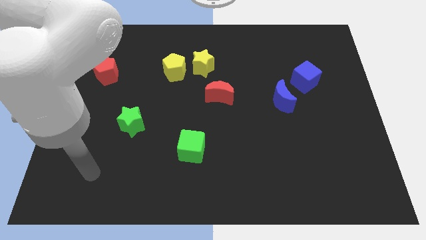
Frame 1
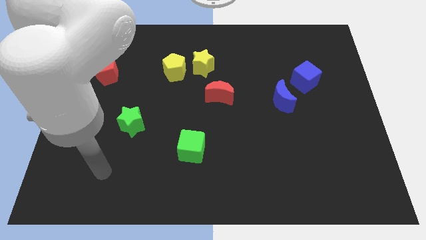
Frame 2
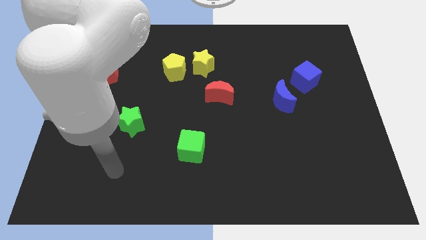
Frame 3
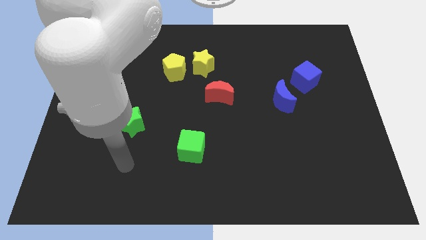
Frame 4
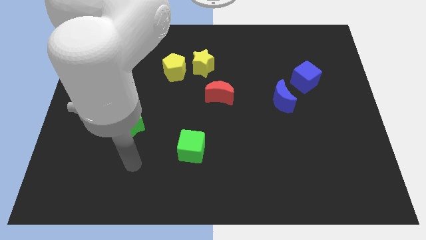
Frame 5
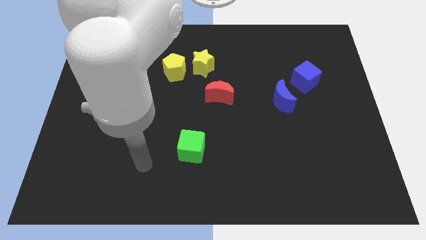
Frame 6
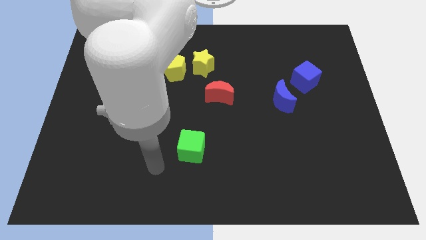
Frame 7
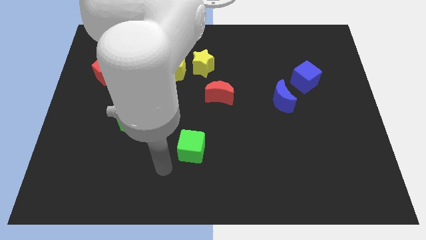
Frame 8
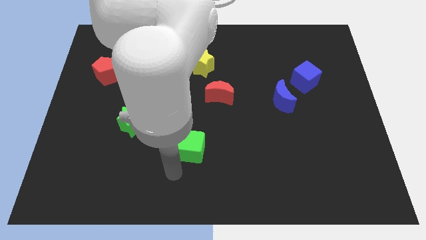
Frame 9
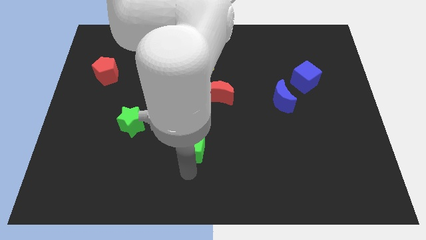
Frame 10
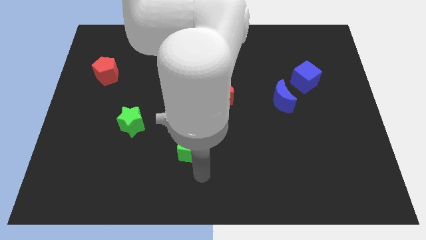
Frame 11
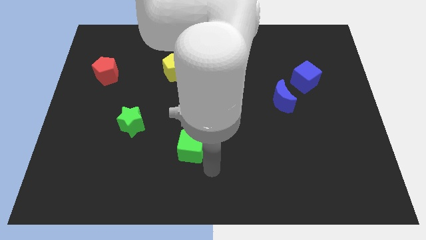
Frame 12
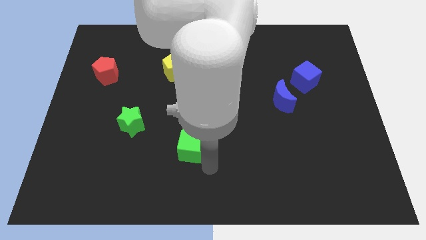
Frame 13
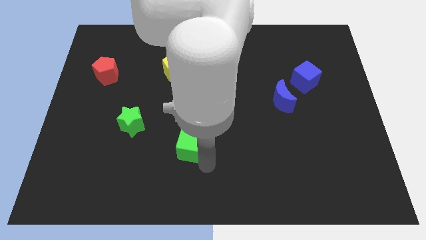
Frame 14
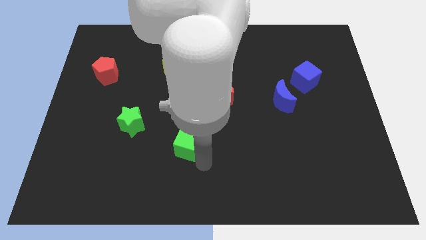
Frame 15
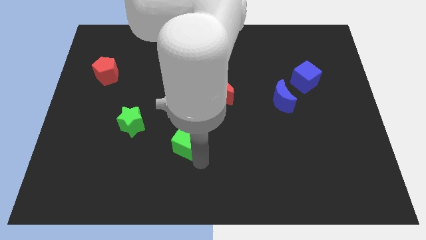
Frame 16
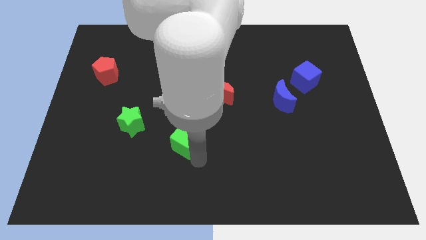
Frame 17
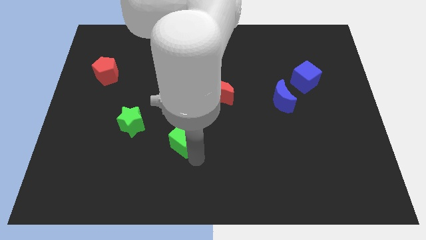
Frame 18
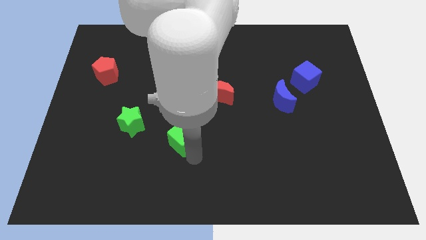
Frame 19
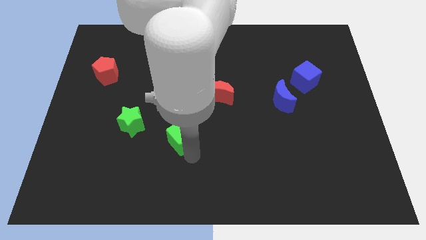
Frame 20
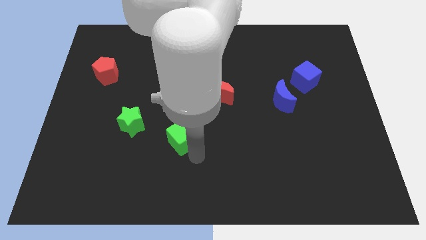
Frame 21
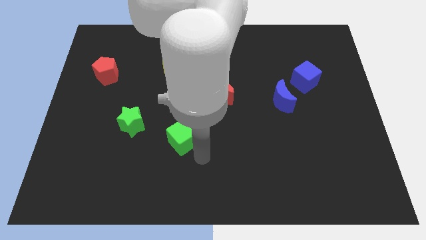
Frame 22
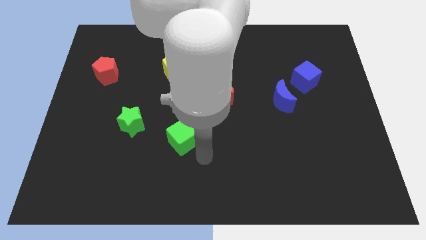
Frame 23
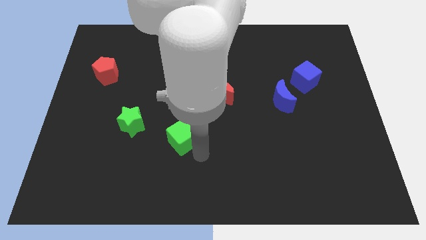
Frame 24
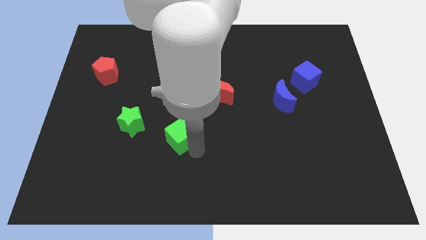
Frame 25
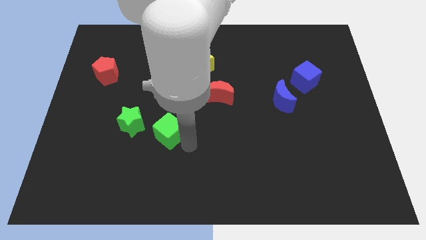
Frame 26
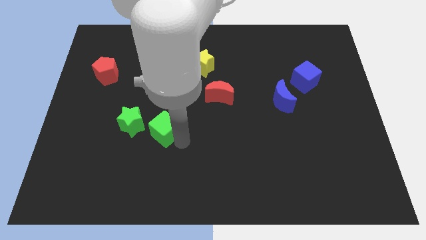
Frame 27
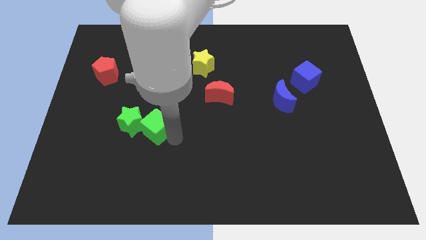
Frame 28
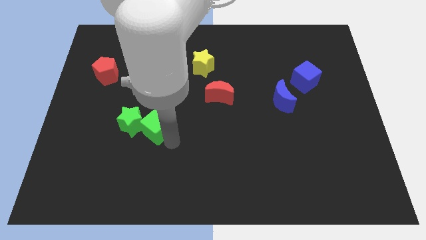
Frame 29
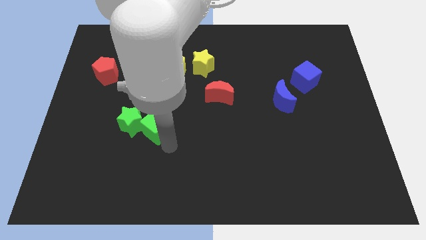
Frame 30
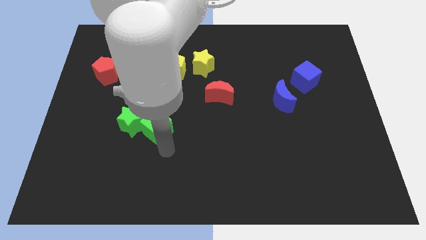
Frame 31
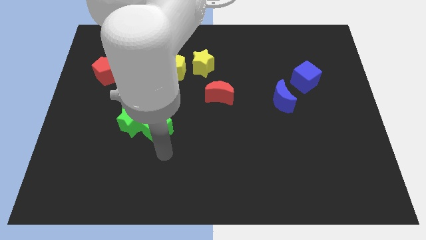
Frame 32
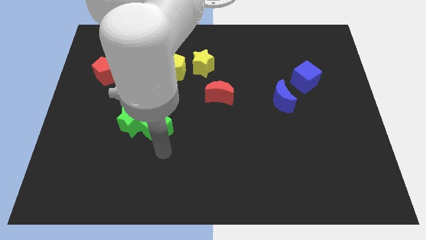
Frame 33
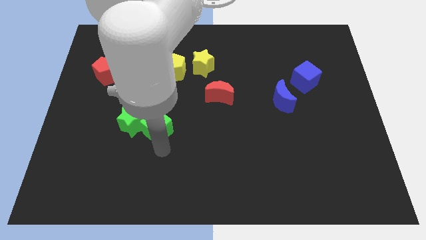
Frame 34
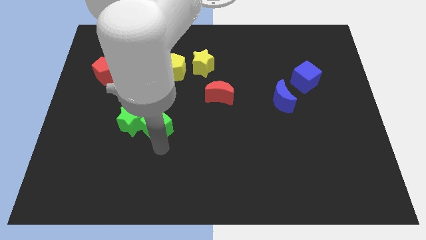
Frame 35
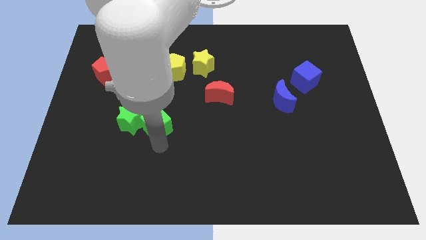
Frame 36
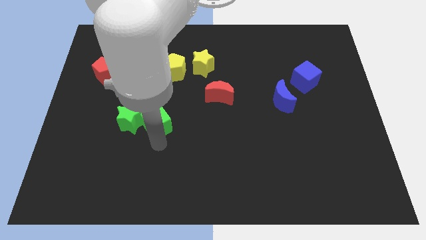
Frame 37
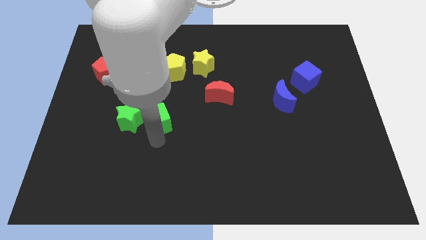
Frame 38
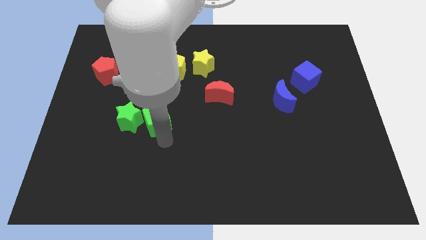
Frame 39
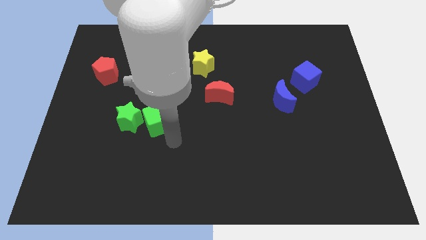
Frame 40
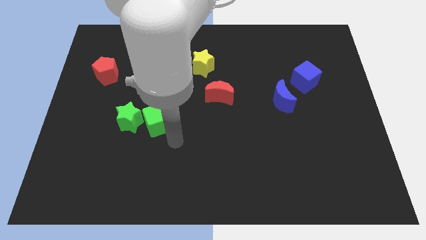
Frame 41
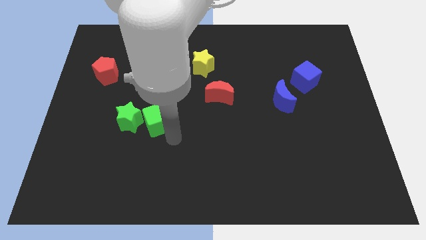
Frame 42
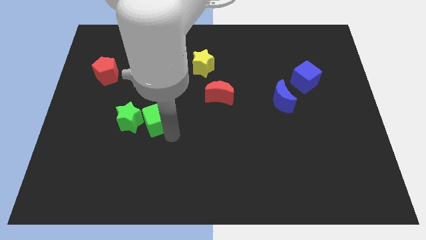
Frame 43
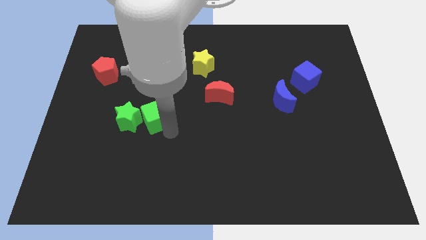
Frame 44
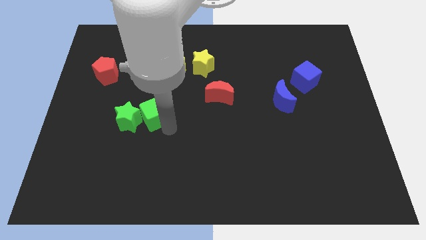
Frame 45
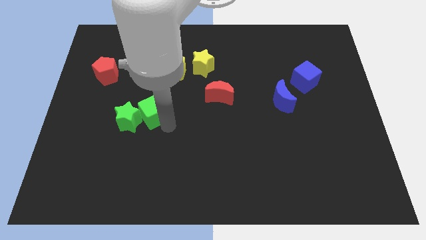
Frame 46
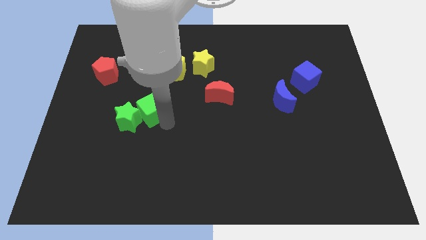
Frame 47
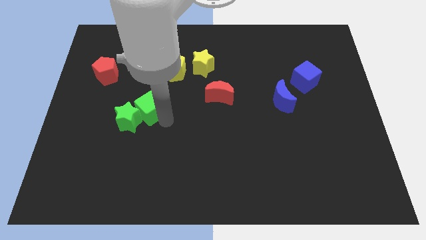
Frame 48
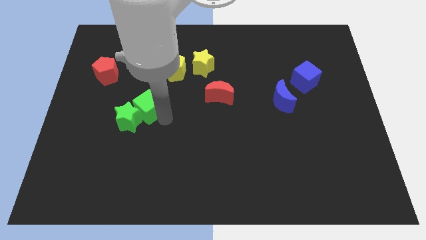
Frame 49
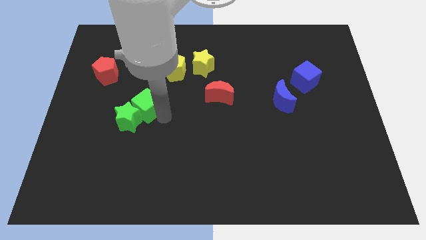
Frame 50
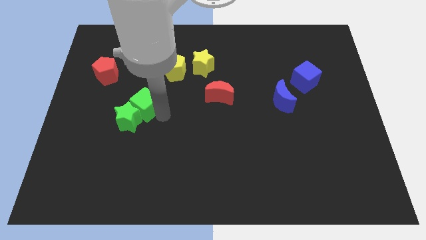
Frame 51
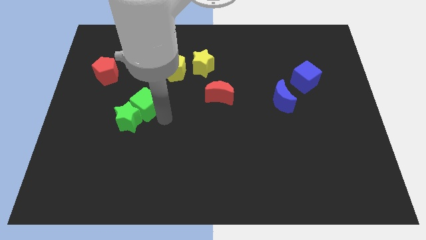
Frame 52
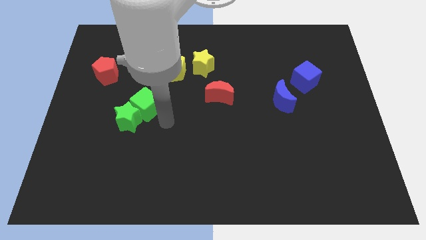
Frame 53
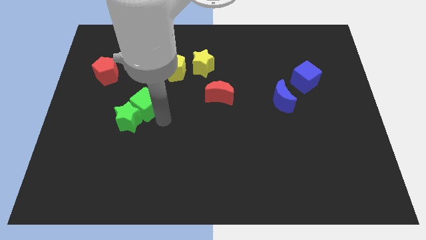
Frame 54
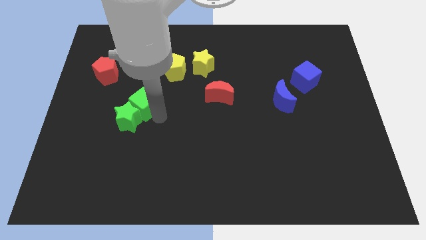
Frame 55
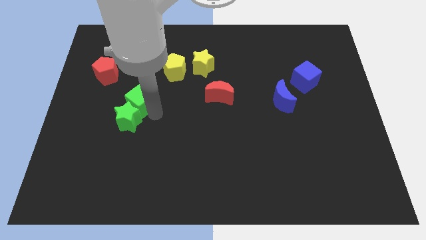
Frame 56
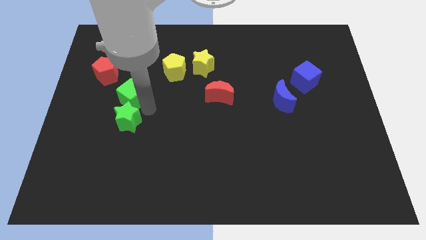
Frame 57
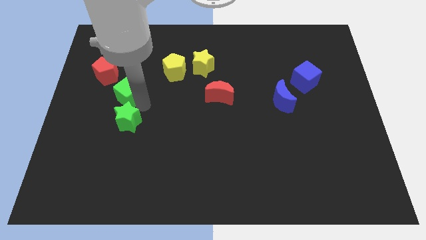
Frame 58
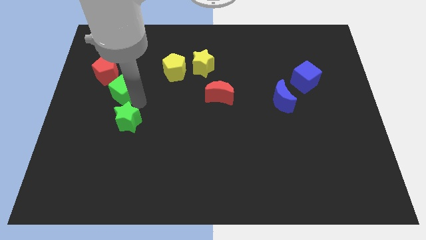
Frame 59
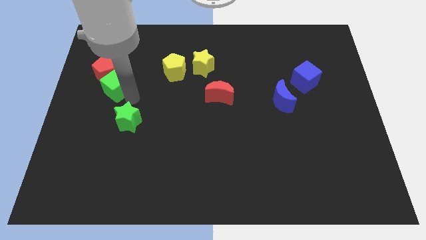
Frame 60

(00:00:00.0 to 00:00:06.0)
move the green cube to the red pentagon

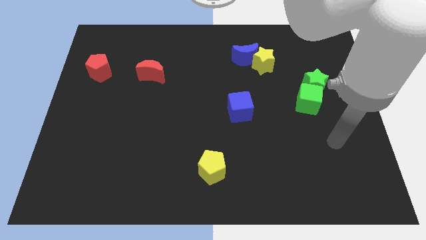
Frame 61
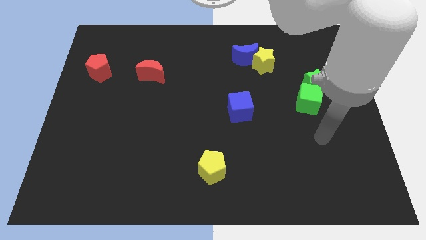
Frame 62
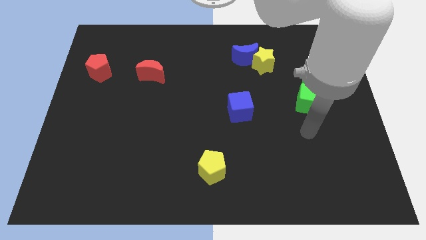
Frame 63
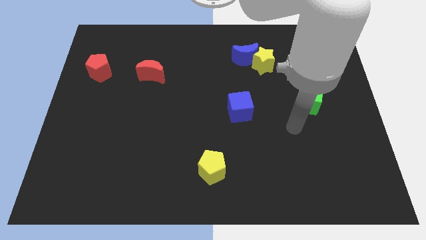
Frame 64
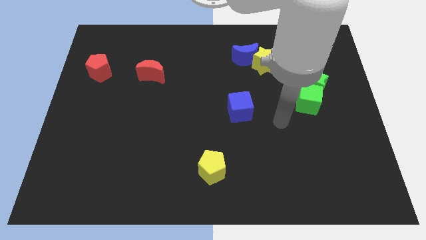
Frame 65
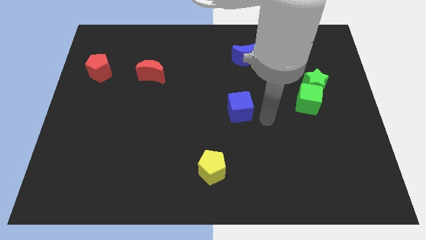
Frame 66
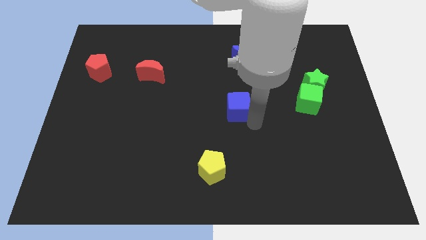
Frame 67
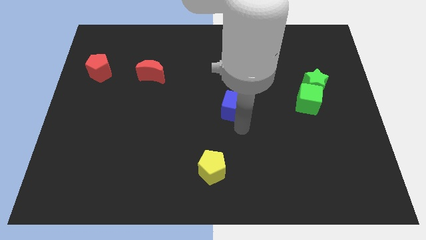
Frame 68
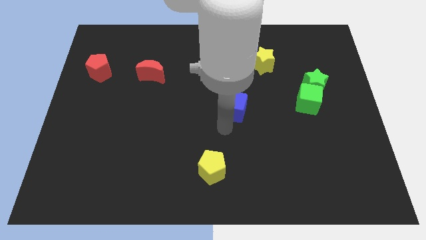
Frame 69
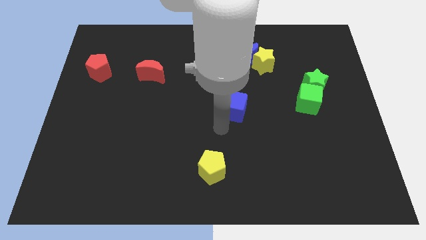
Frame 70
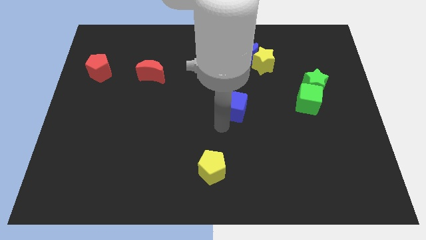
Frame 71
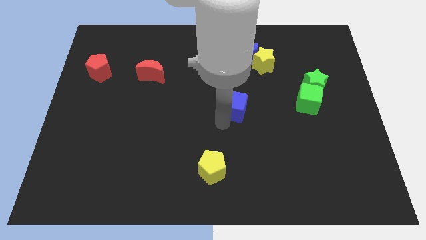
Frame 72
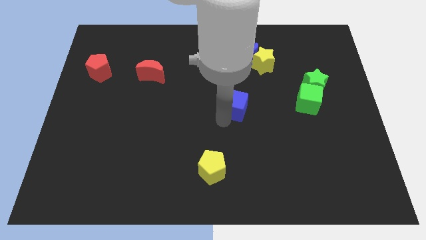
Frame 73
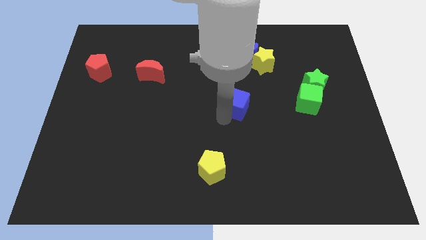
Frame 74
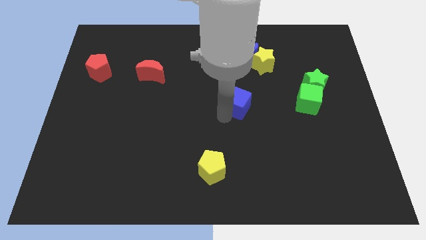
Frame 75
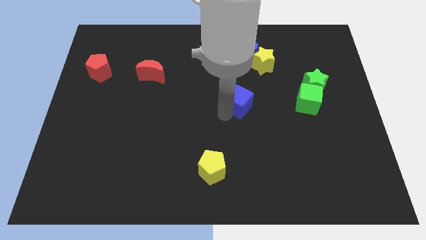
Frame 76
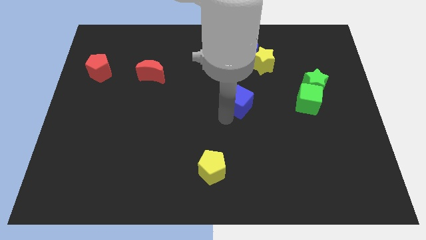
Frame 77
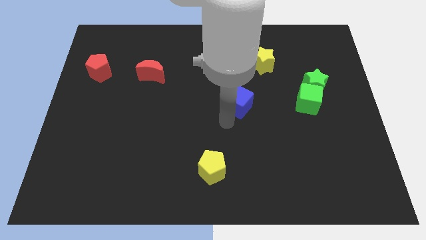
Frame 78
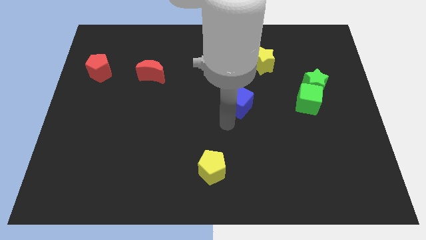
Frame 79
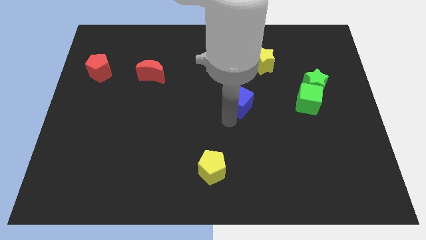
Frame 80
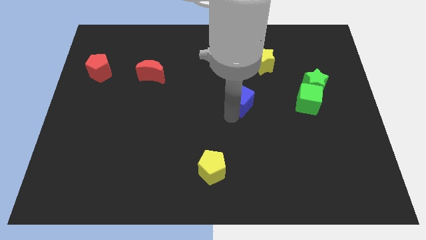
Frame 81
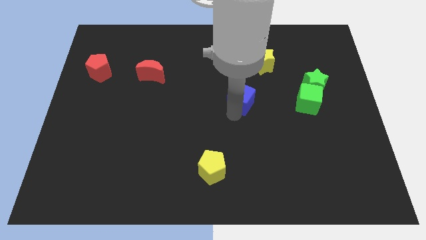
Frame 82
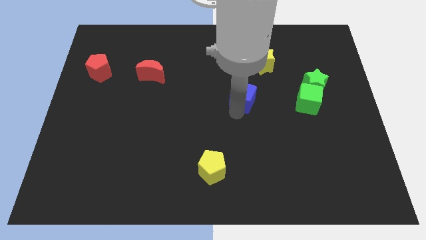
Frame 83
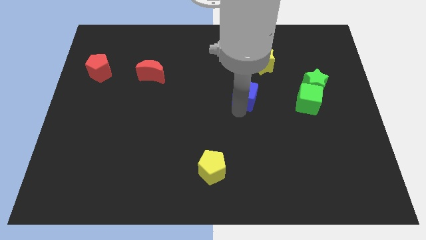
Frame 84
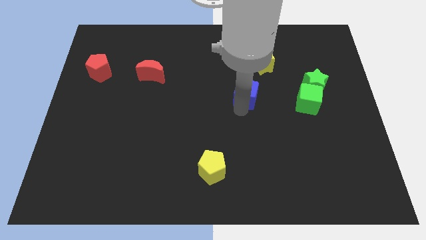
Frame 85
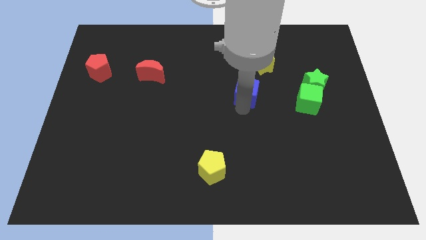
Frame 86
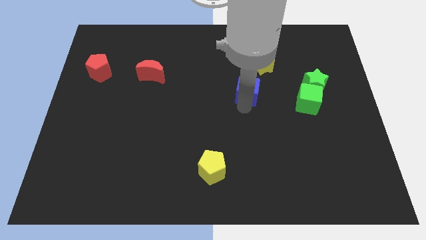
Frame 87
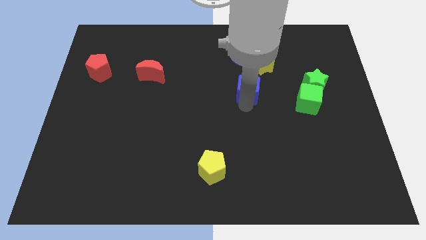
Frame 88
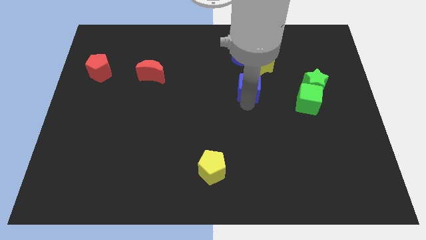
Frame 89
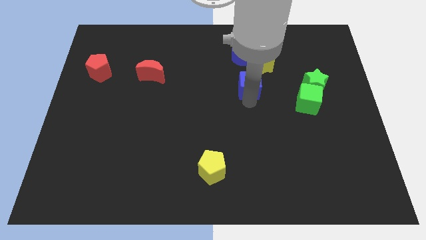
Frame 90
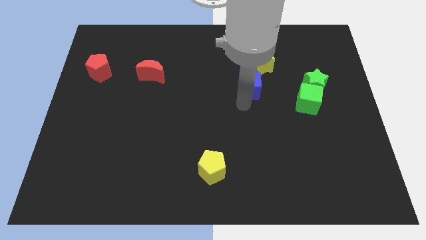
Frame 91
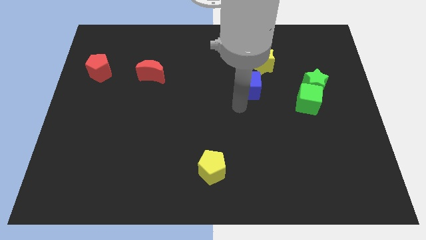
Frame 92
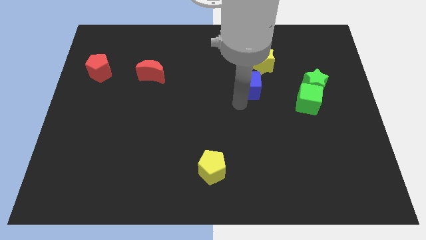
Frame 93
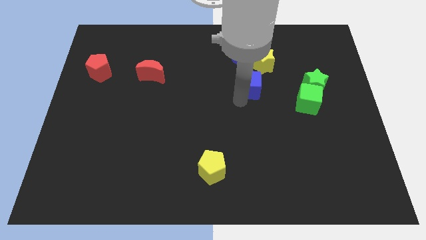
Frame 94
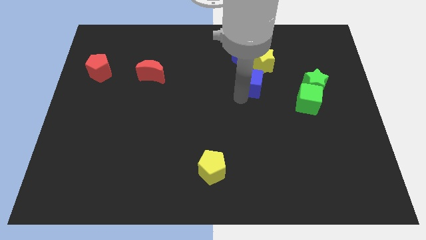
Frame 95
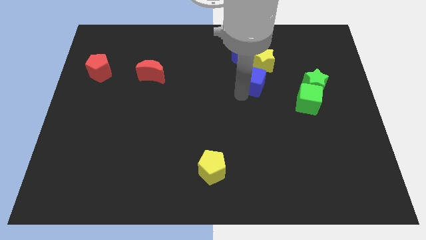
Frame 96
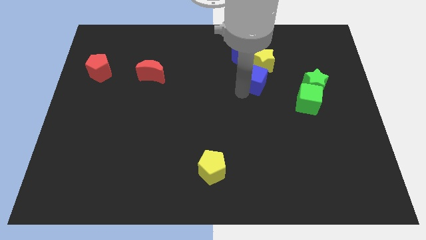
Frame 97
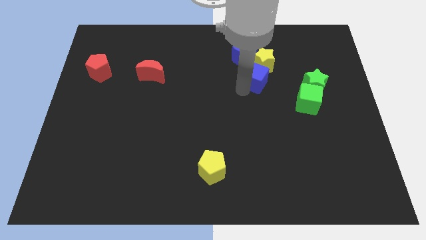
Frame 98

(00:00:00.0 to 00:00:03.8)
put the blue cube to the yellow star
